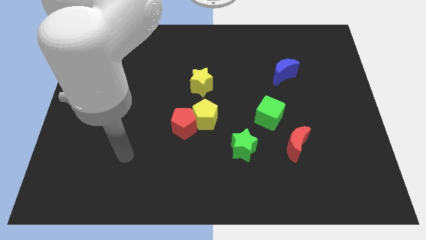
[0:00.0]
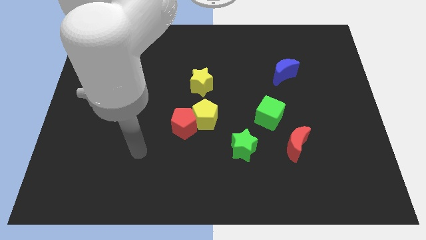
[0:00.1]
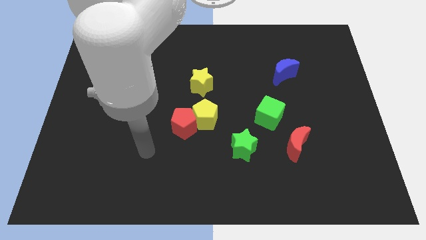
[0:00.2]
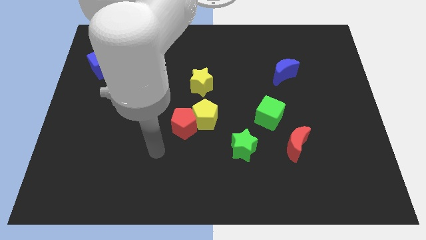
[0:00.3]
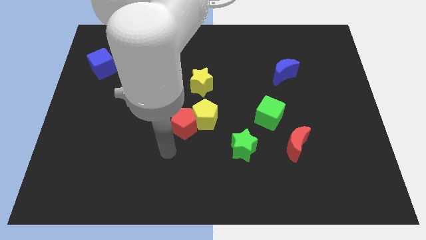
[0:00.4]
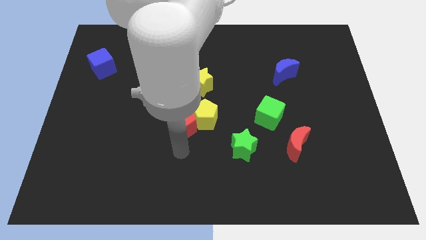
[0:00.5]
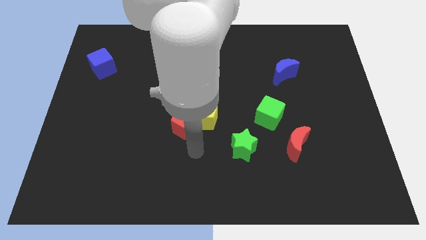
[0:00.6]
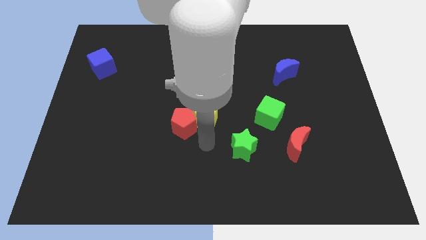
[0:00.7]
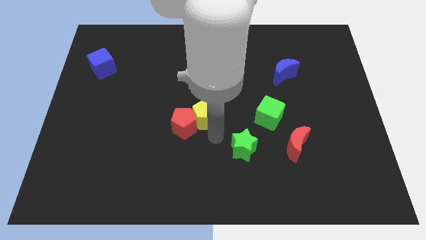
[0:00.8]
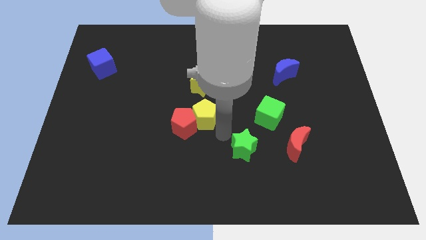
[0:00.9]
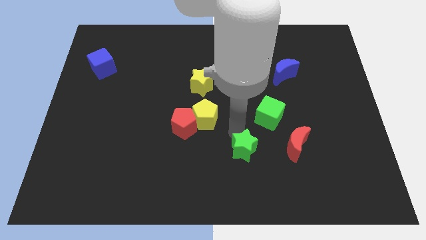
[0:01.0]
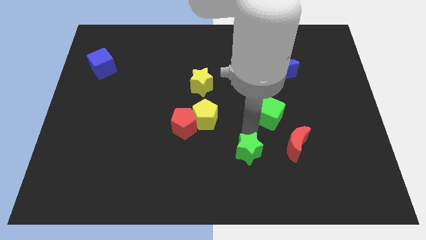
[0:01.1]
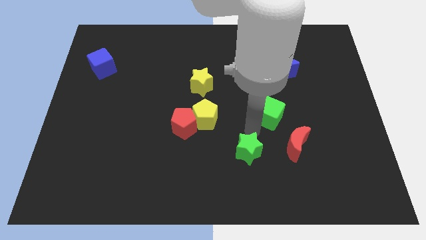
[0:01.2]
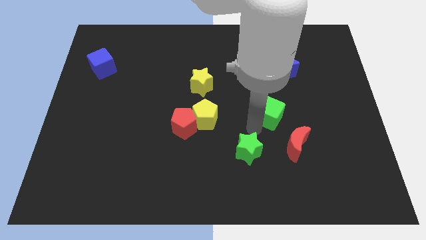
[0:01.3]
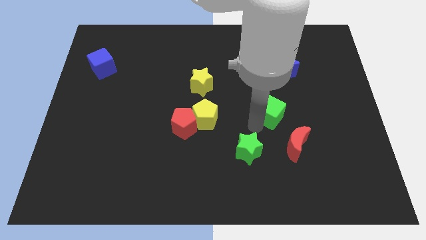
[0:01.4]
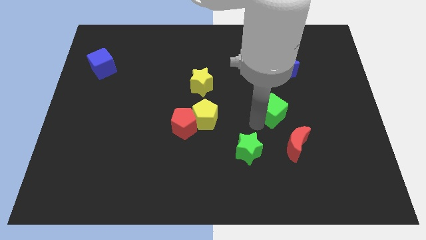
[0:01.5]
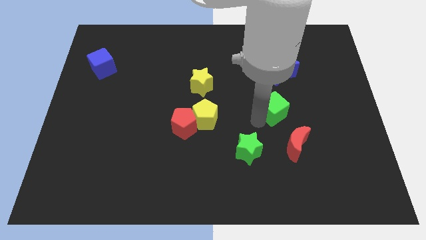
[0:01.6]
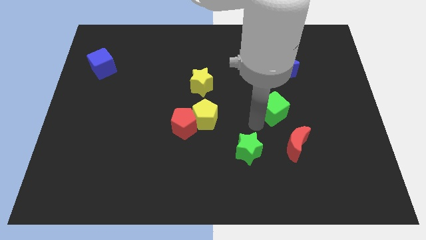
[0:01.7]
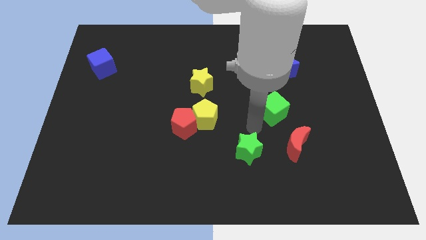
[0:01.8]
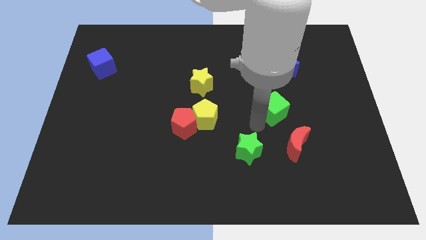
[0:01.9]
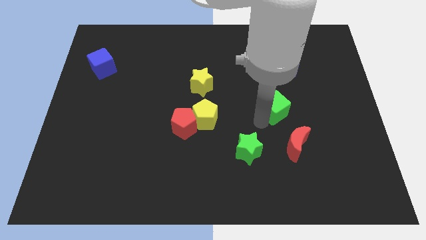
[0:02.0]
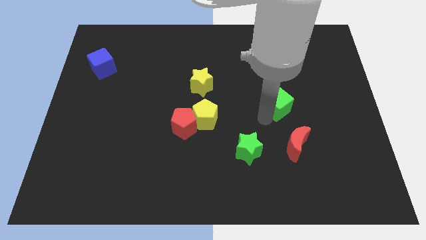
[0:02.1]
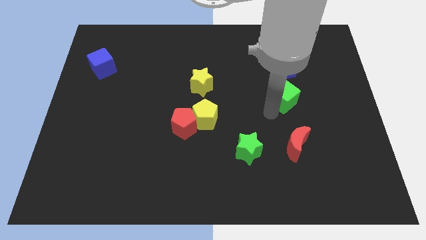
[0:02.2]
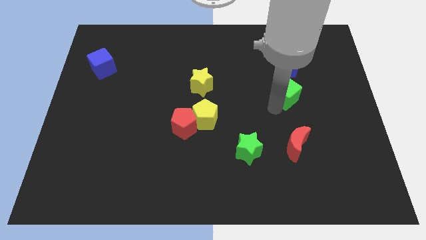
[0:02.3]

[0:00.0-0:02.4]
push the green cube upwards and right somewhat

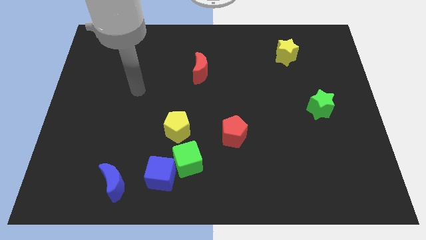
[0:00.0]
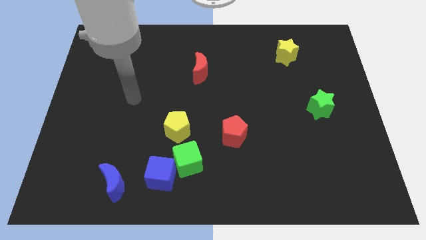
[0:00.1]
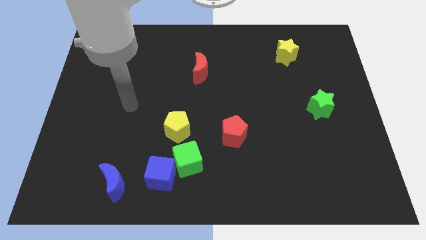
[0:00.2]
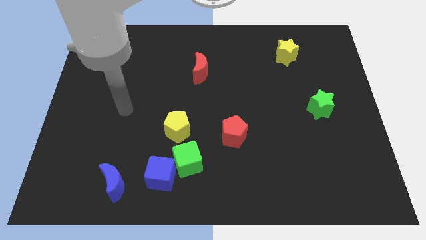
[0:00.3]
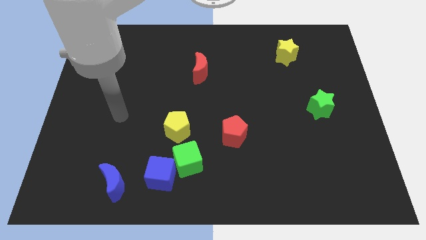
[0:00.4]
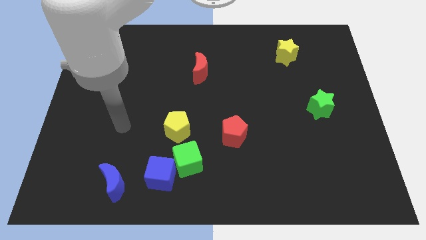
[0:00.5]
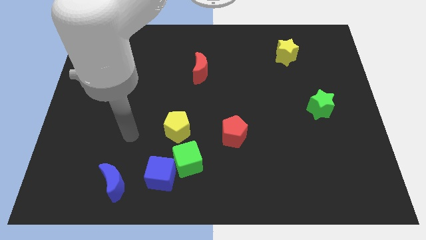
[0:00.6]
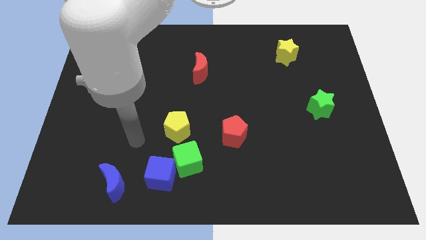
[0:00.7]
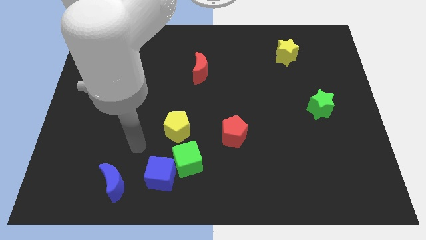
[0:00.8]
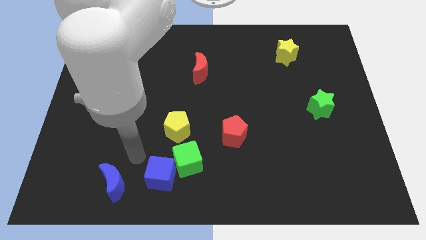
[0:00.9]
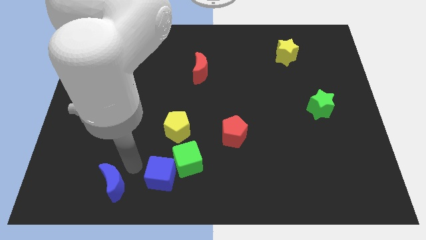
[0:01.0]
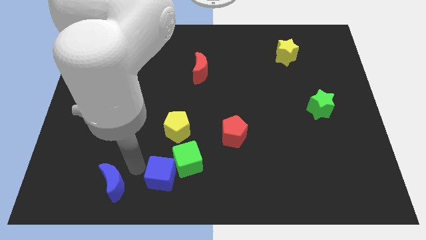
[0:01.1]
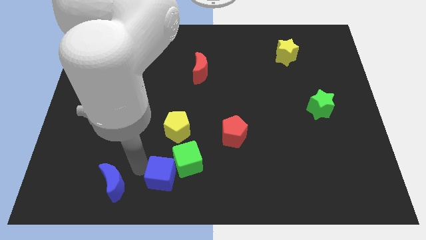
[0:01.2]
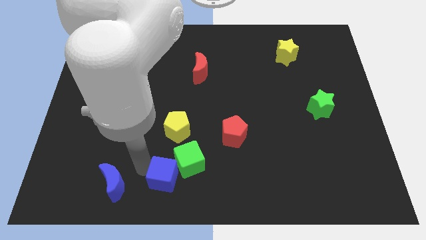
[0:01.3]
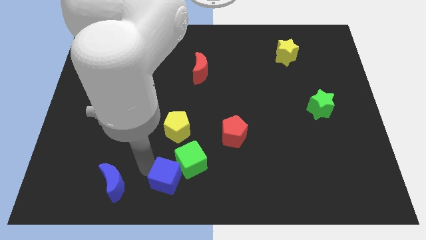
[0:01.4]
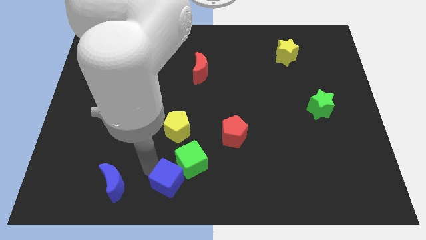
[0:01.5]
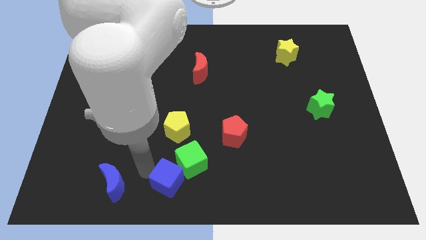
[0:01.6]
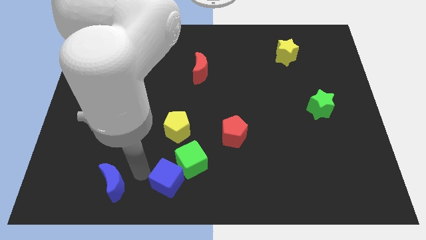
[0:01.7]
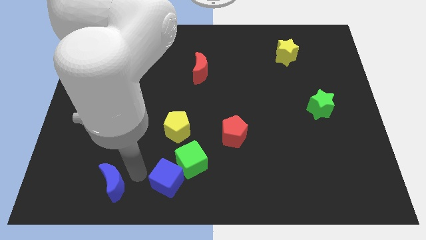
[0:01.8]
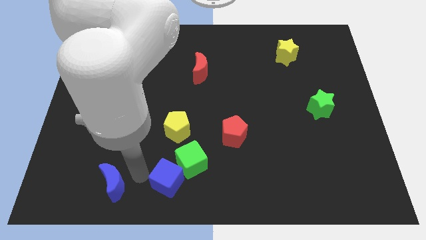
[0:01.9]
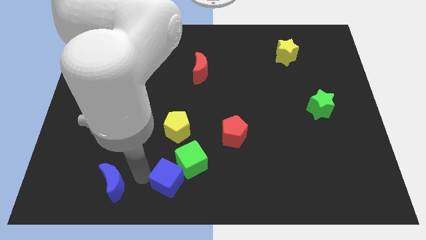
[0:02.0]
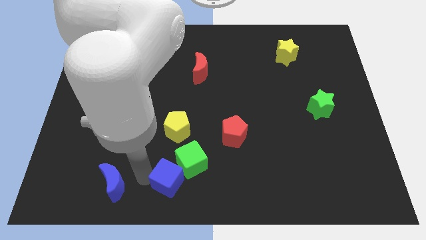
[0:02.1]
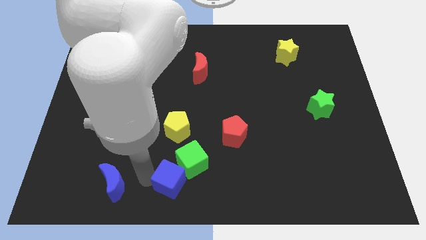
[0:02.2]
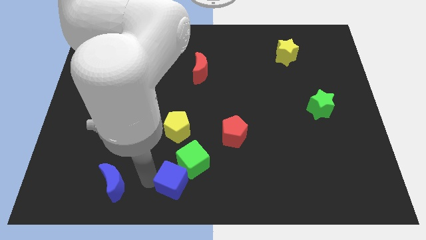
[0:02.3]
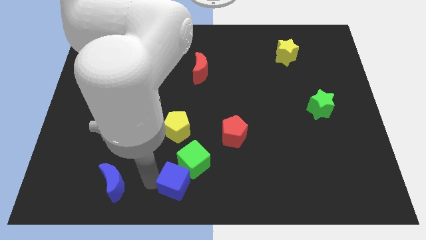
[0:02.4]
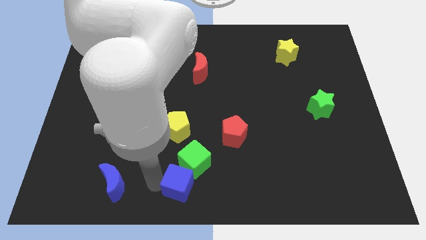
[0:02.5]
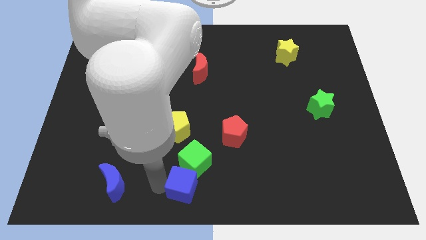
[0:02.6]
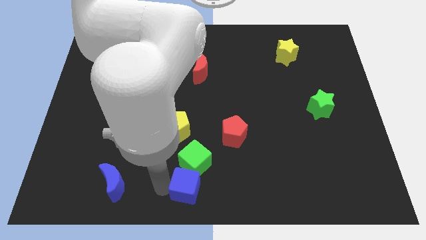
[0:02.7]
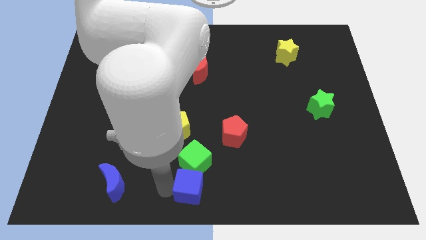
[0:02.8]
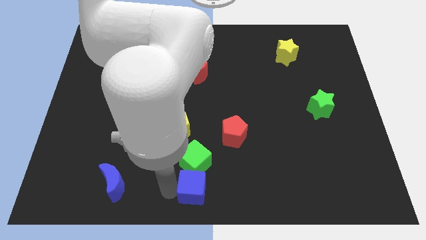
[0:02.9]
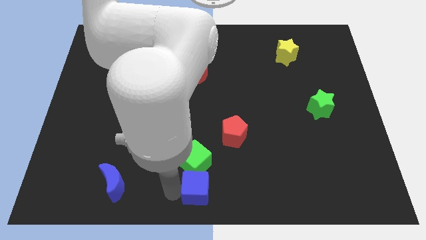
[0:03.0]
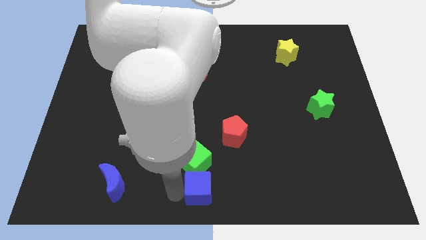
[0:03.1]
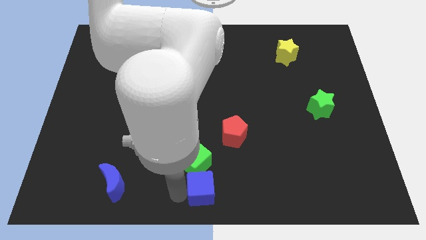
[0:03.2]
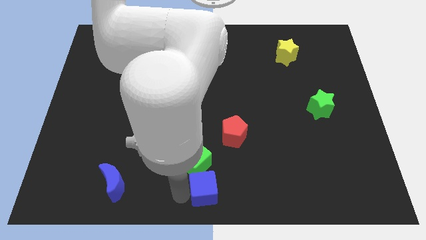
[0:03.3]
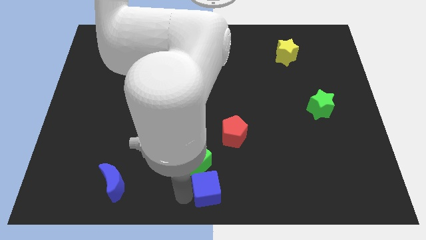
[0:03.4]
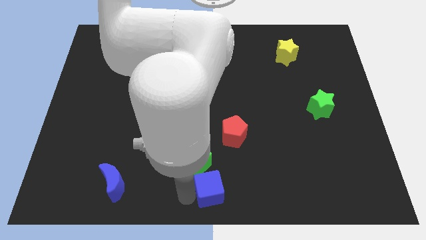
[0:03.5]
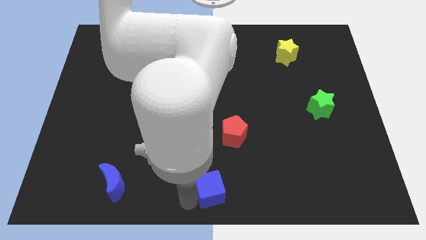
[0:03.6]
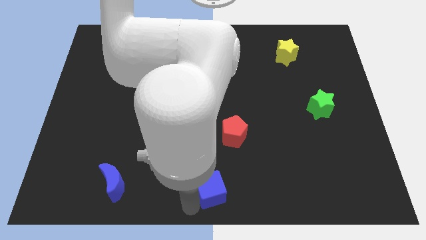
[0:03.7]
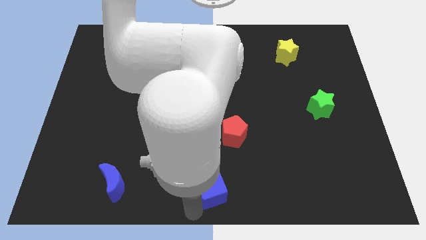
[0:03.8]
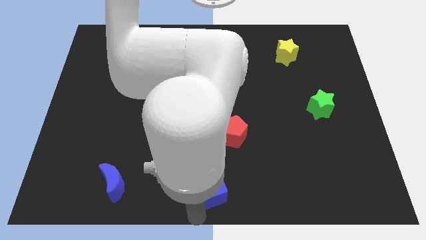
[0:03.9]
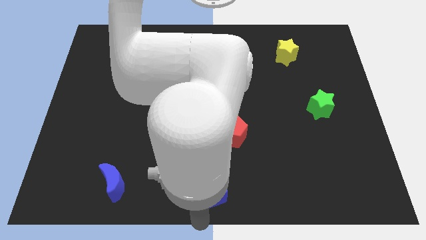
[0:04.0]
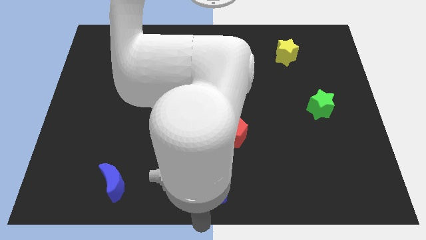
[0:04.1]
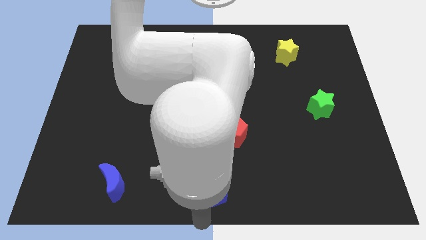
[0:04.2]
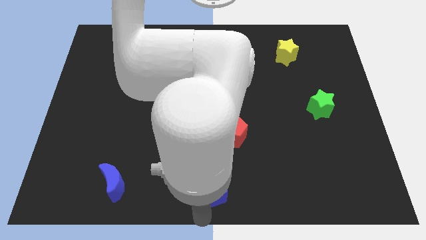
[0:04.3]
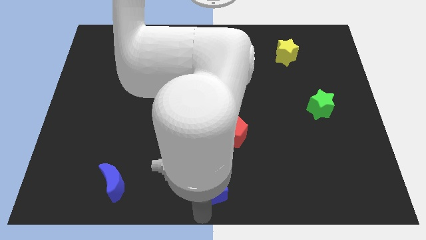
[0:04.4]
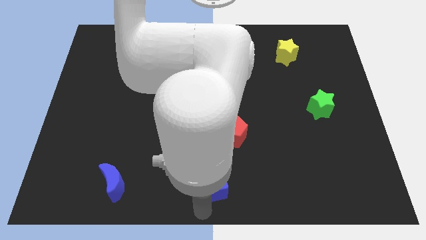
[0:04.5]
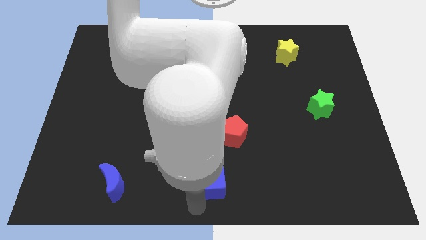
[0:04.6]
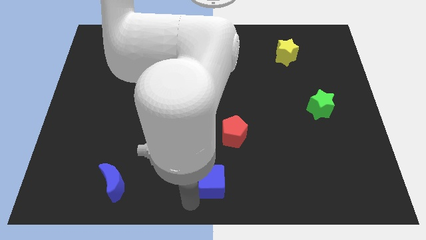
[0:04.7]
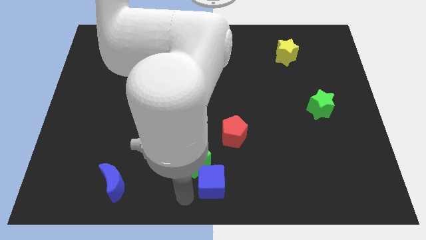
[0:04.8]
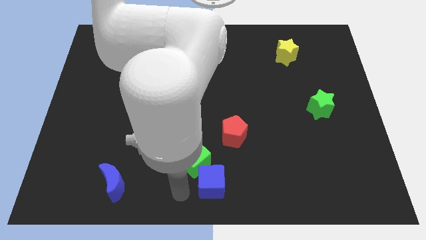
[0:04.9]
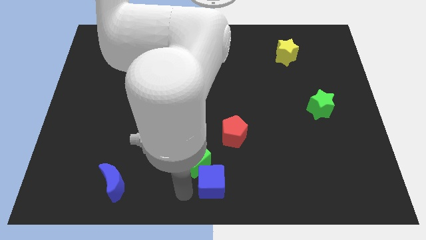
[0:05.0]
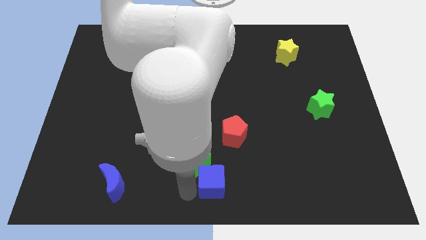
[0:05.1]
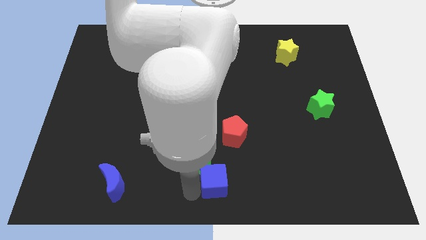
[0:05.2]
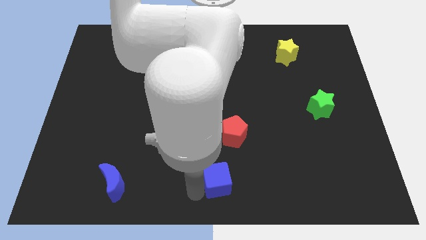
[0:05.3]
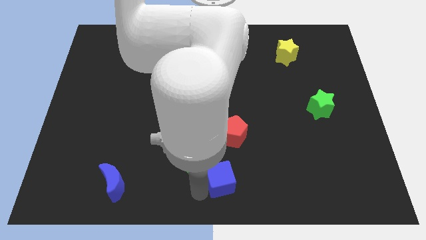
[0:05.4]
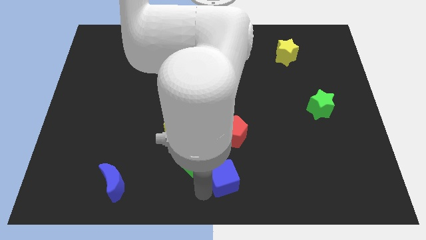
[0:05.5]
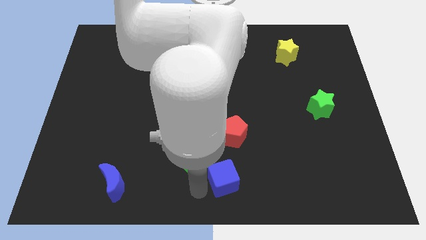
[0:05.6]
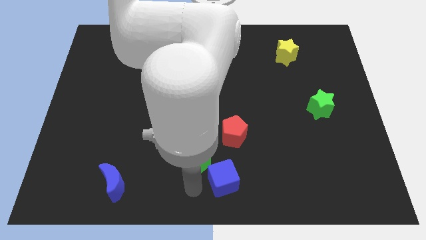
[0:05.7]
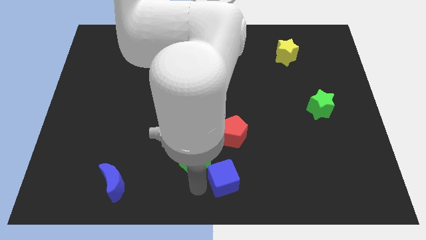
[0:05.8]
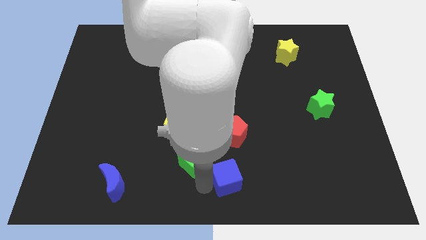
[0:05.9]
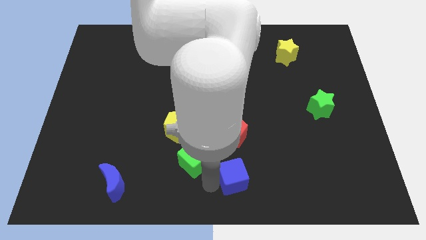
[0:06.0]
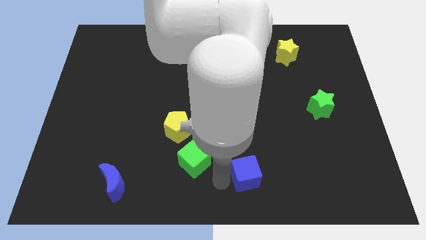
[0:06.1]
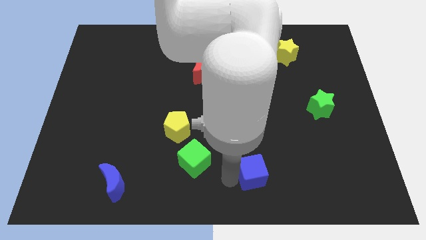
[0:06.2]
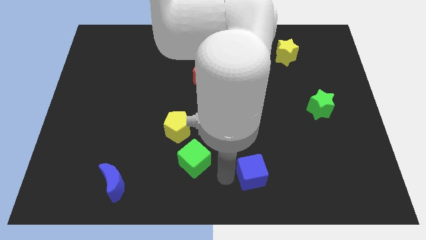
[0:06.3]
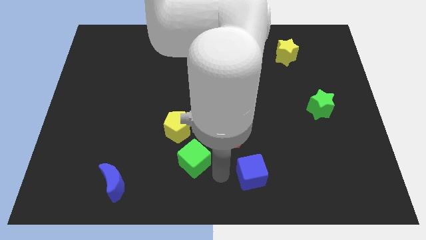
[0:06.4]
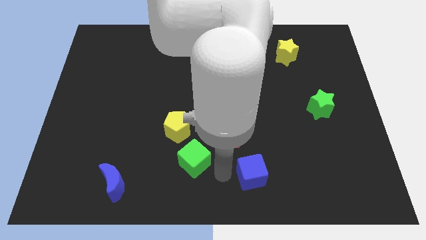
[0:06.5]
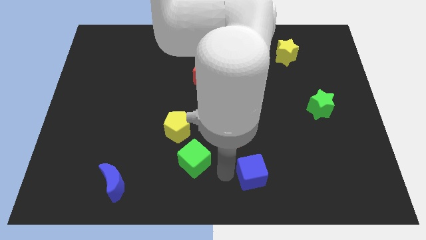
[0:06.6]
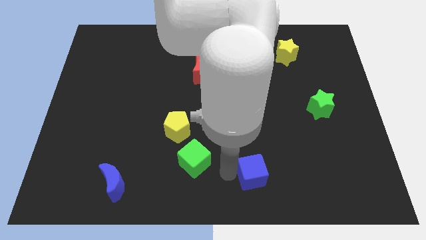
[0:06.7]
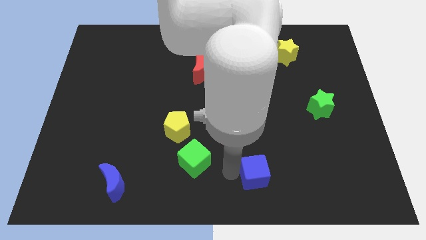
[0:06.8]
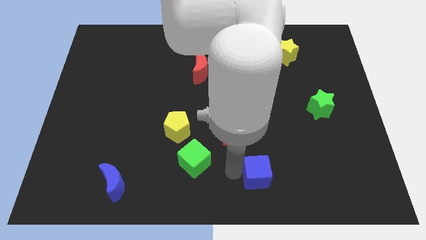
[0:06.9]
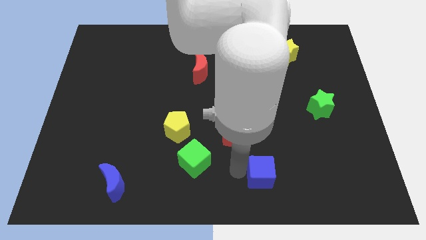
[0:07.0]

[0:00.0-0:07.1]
slide the blue cube right
